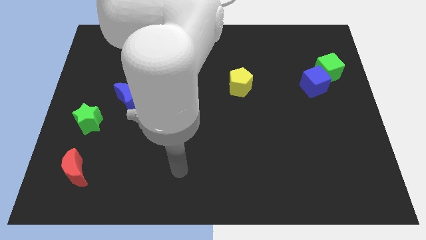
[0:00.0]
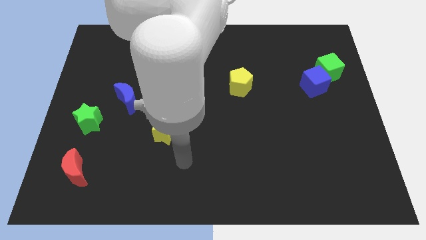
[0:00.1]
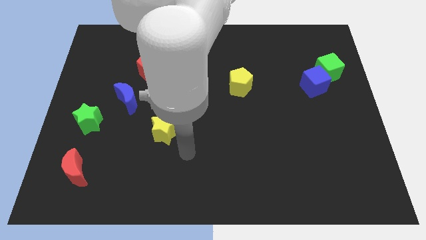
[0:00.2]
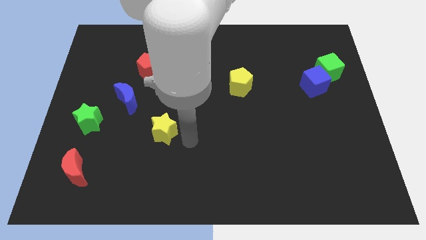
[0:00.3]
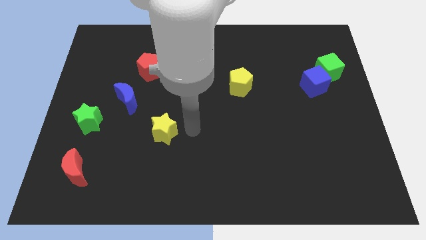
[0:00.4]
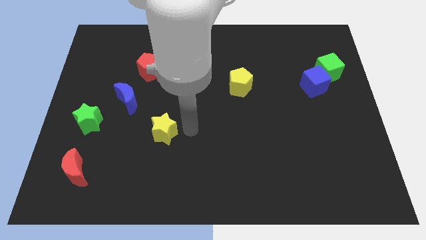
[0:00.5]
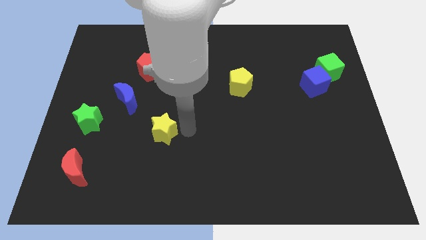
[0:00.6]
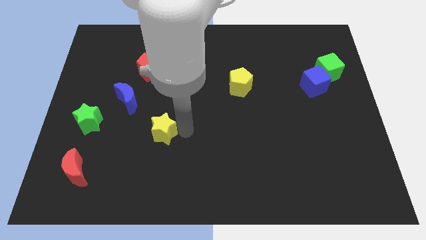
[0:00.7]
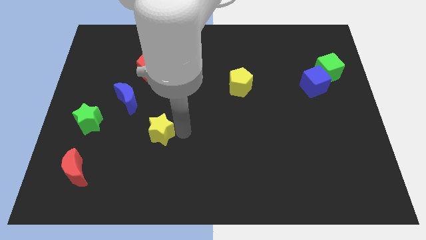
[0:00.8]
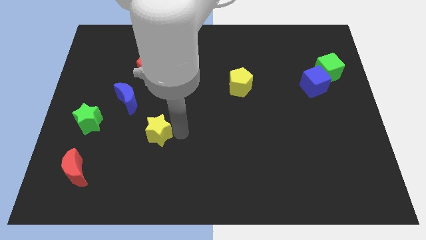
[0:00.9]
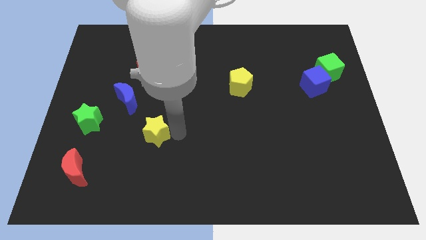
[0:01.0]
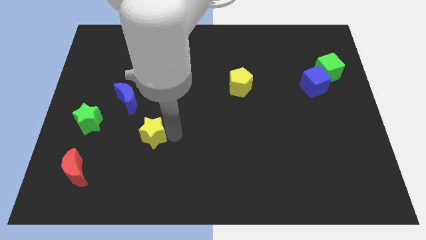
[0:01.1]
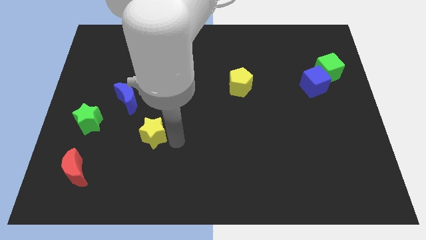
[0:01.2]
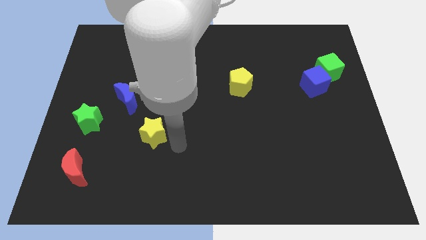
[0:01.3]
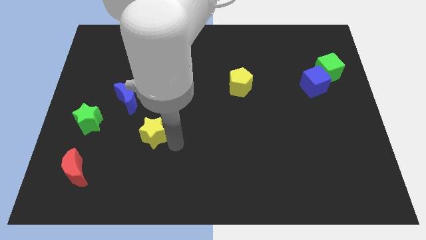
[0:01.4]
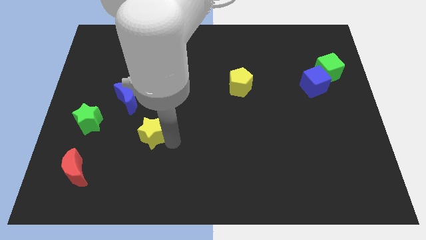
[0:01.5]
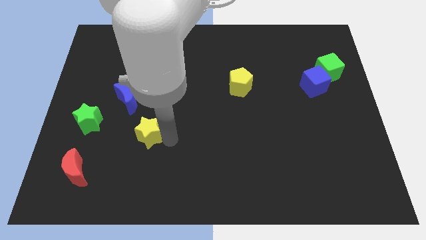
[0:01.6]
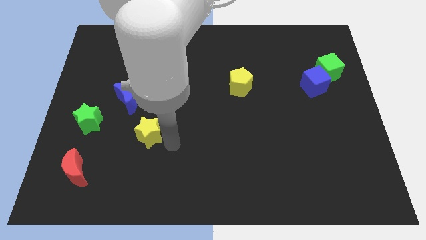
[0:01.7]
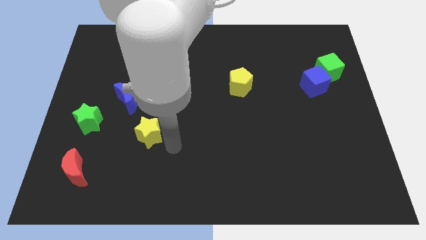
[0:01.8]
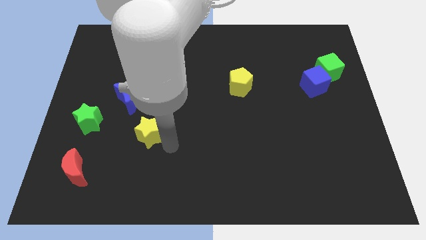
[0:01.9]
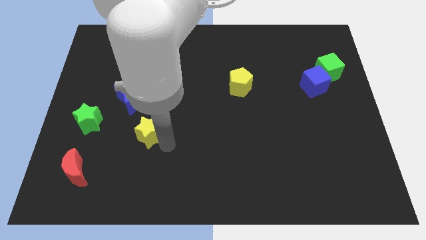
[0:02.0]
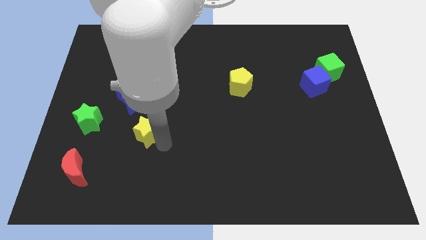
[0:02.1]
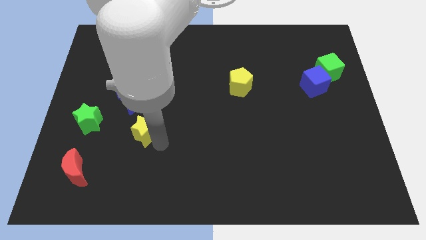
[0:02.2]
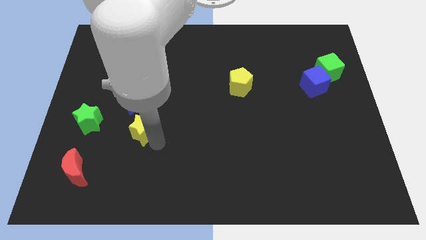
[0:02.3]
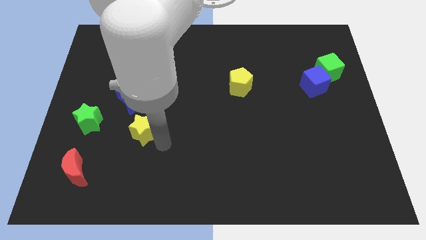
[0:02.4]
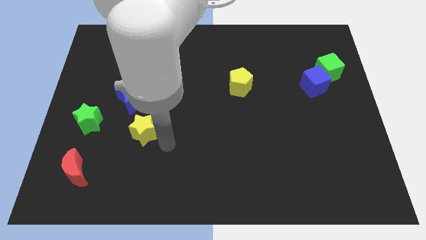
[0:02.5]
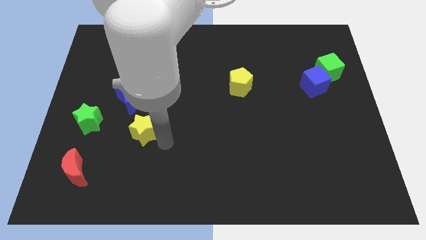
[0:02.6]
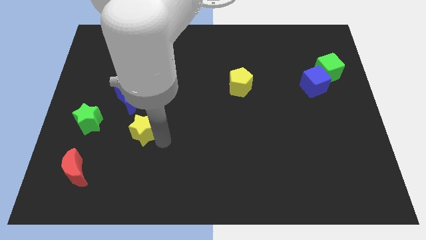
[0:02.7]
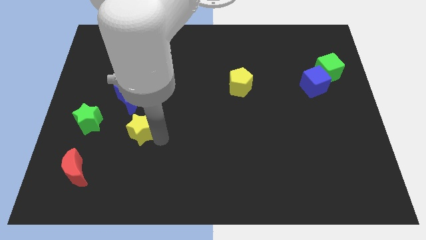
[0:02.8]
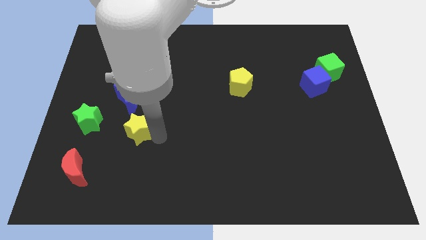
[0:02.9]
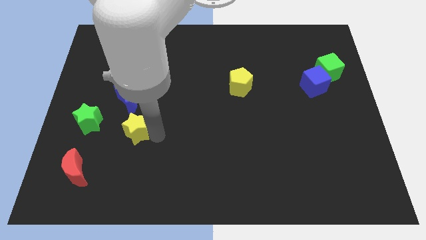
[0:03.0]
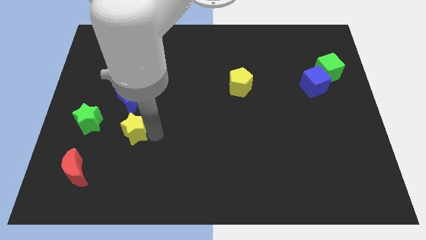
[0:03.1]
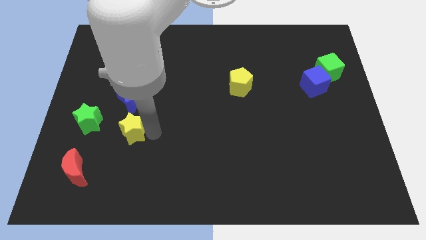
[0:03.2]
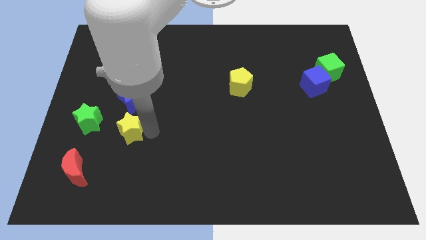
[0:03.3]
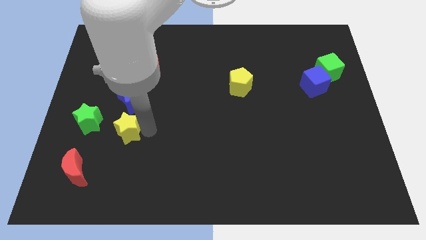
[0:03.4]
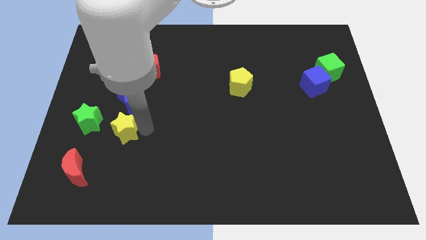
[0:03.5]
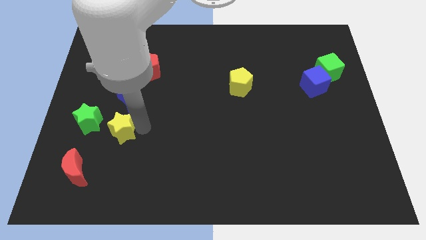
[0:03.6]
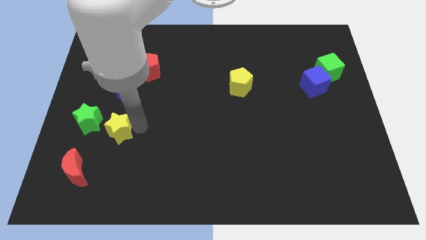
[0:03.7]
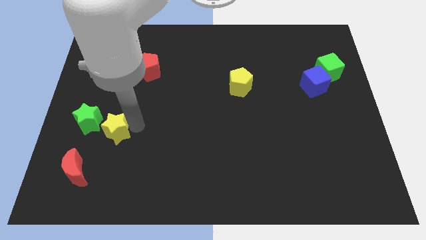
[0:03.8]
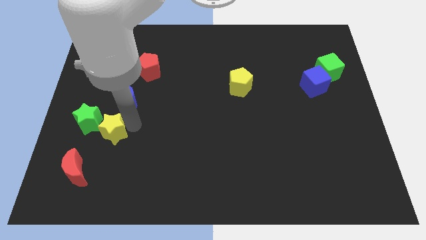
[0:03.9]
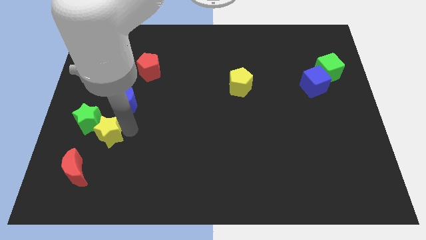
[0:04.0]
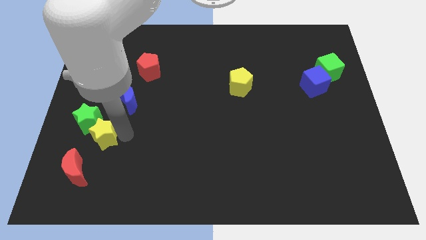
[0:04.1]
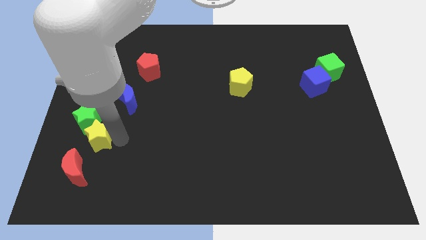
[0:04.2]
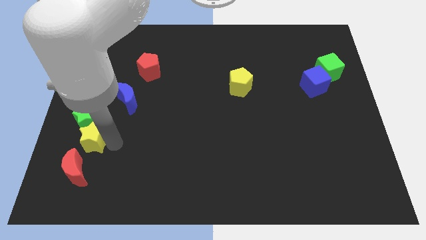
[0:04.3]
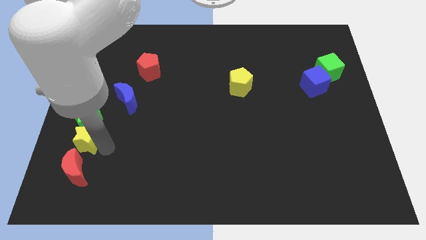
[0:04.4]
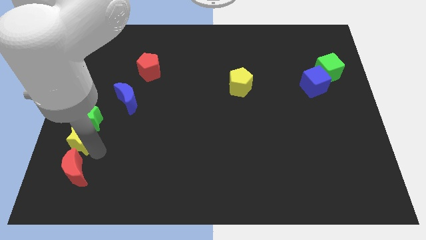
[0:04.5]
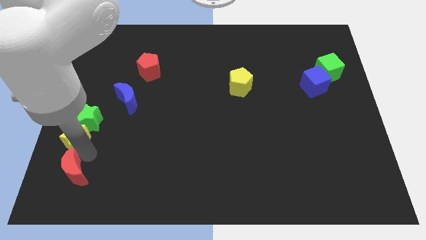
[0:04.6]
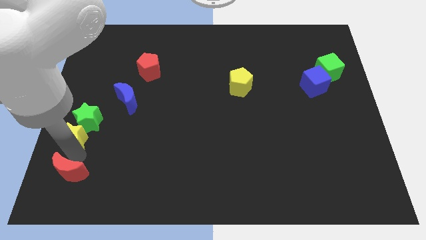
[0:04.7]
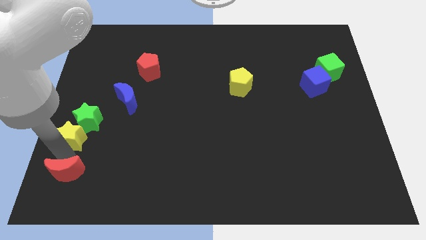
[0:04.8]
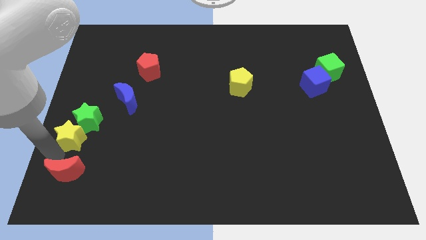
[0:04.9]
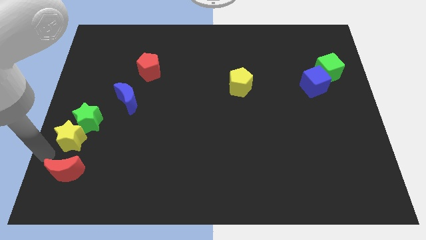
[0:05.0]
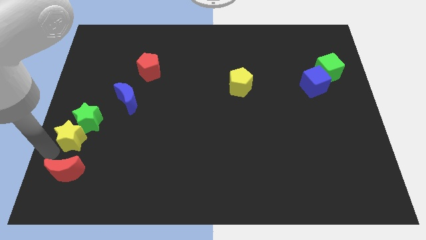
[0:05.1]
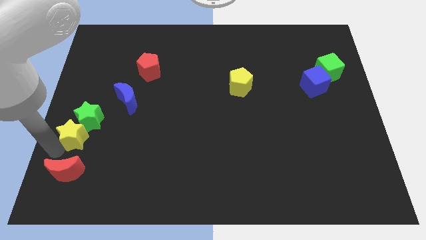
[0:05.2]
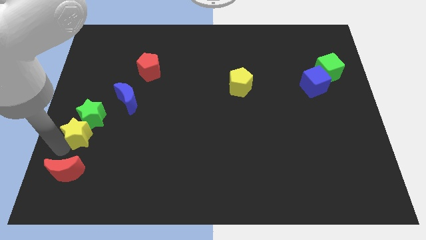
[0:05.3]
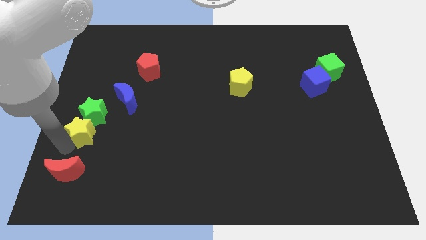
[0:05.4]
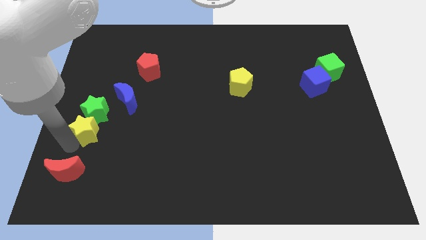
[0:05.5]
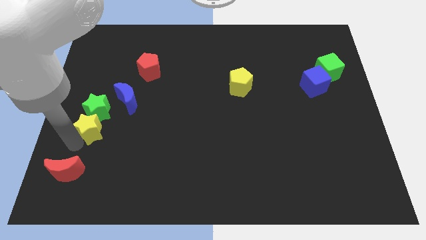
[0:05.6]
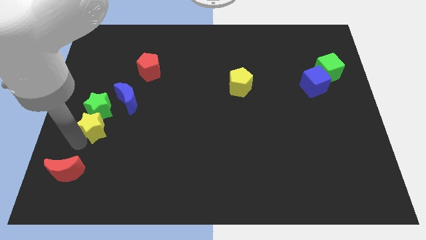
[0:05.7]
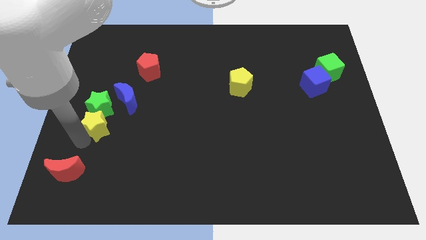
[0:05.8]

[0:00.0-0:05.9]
slightly push the yellow star upwards and to the left

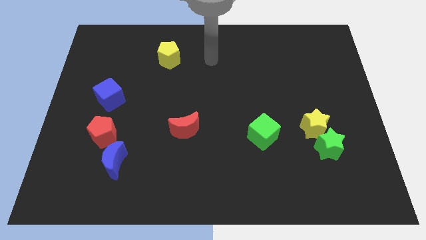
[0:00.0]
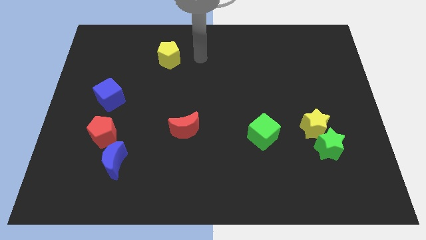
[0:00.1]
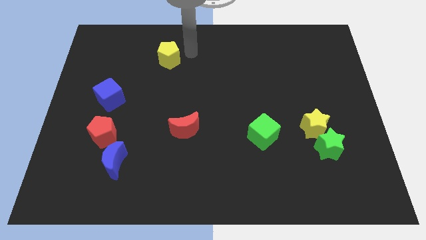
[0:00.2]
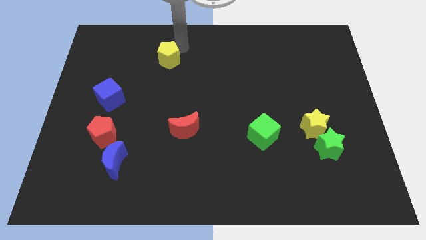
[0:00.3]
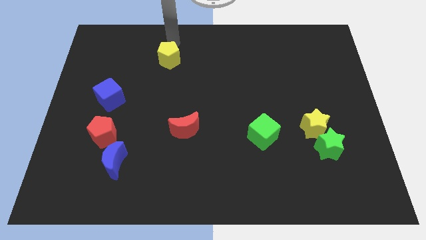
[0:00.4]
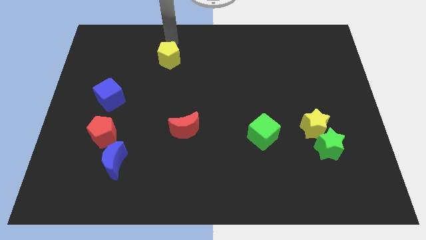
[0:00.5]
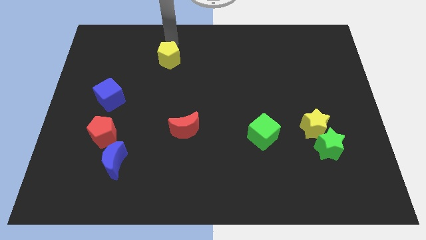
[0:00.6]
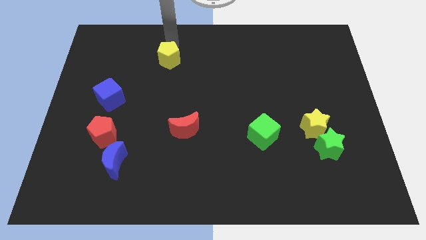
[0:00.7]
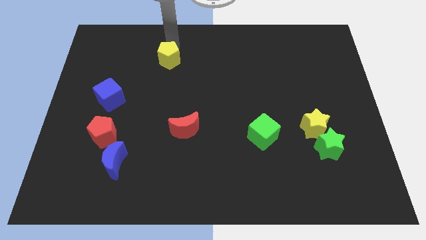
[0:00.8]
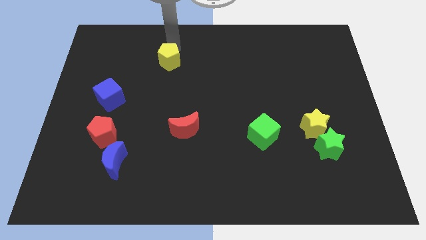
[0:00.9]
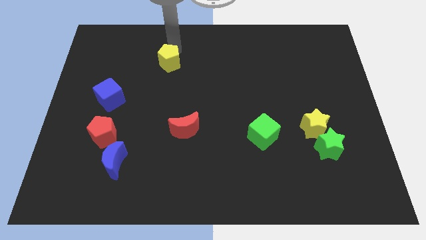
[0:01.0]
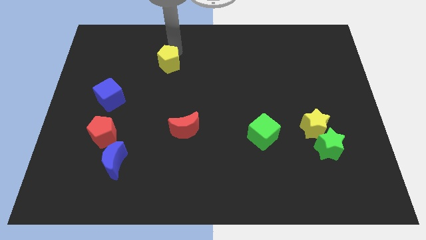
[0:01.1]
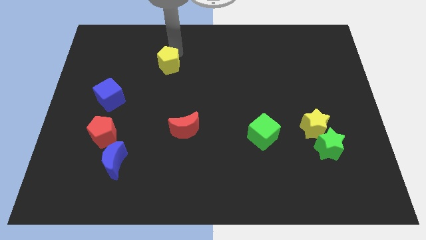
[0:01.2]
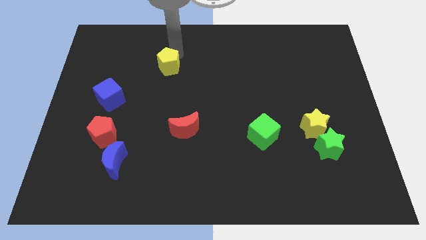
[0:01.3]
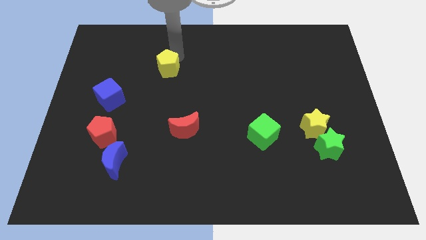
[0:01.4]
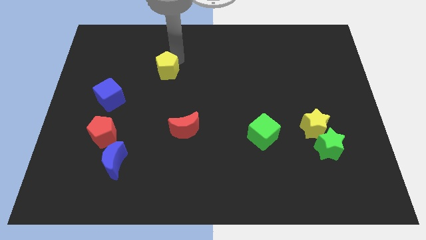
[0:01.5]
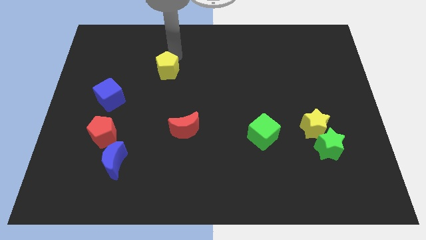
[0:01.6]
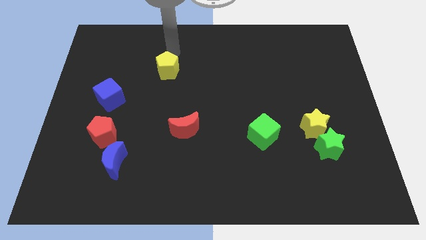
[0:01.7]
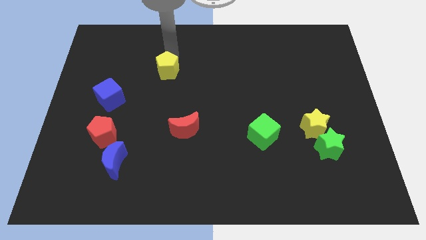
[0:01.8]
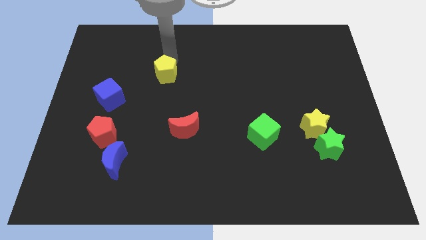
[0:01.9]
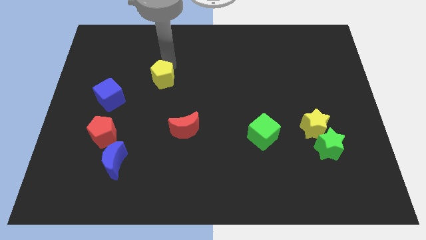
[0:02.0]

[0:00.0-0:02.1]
slide the yellow pentagon slightly downwards

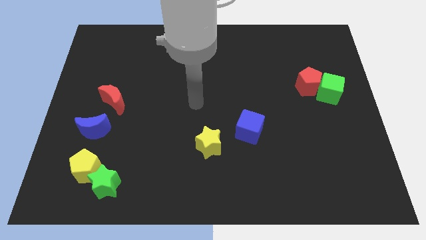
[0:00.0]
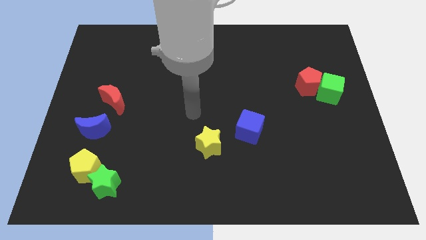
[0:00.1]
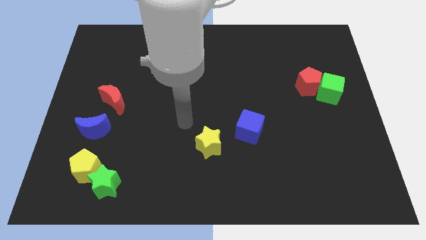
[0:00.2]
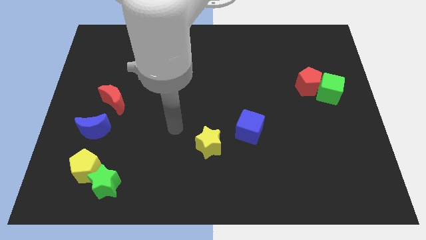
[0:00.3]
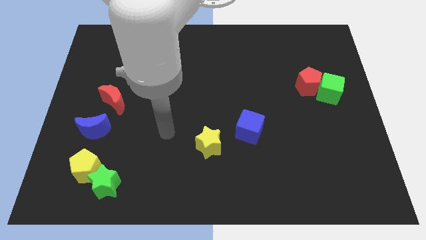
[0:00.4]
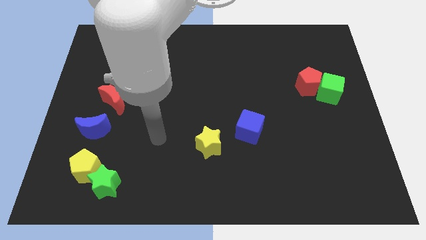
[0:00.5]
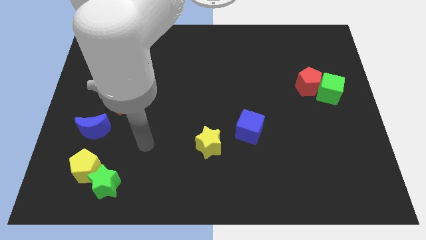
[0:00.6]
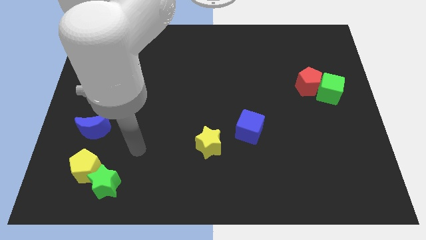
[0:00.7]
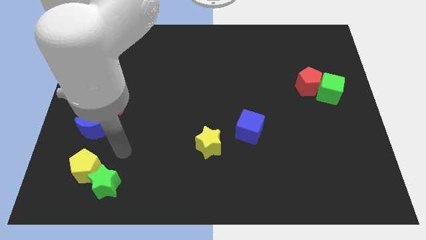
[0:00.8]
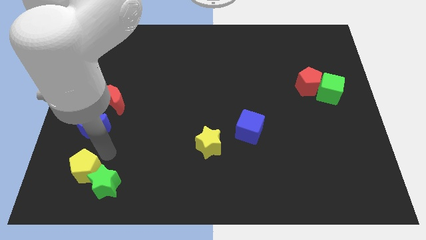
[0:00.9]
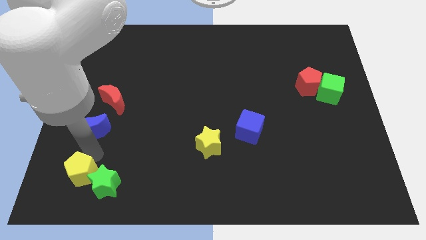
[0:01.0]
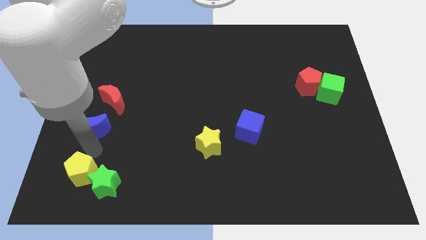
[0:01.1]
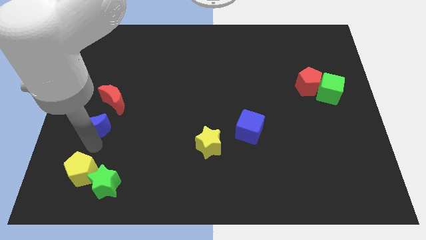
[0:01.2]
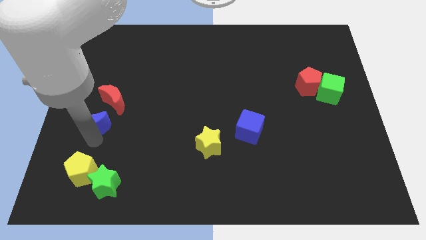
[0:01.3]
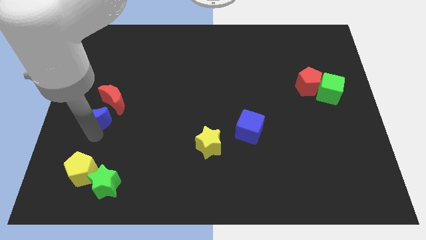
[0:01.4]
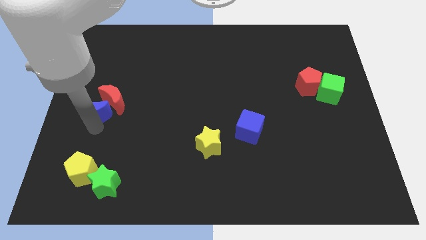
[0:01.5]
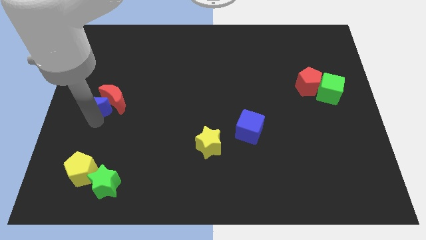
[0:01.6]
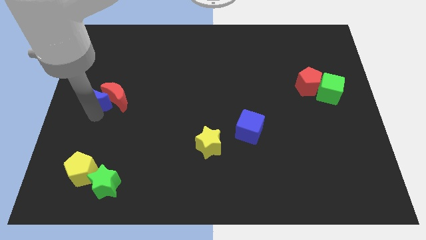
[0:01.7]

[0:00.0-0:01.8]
move the blue moon a little bit upwards
